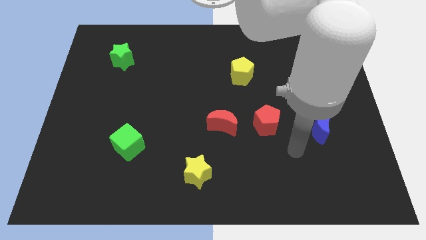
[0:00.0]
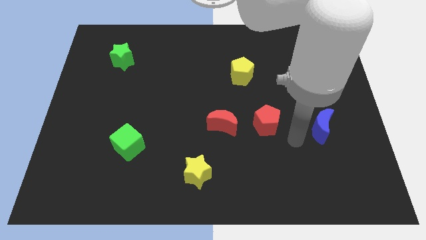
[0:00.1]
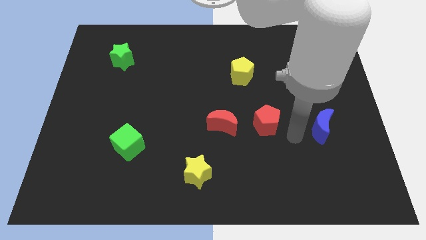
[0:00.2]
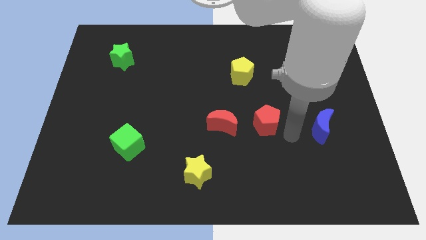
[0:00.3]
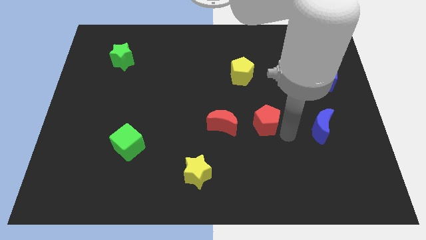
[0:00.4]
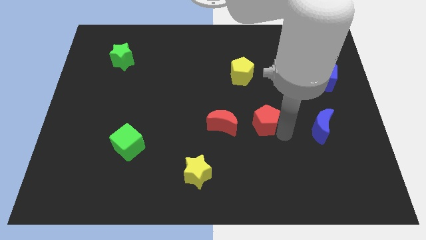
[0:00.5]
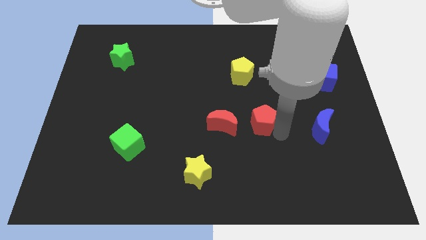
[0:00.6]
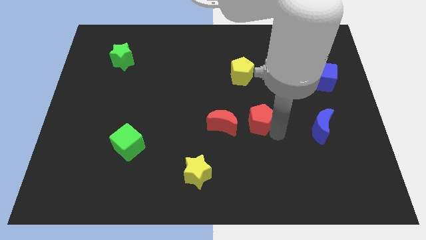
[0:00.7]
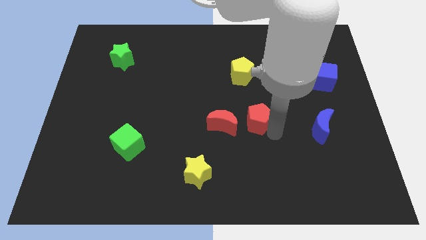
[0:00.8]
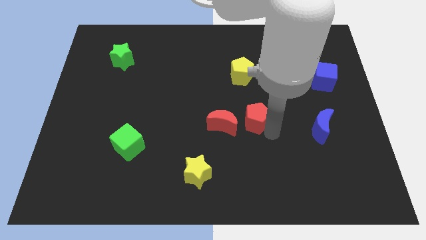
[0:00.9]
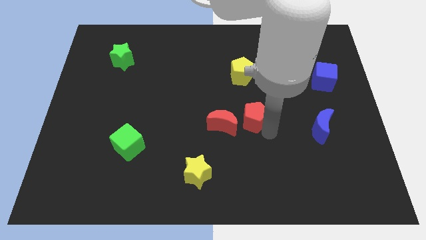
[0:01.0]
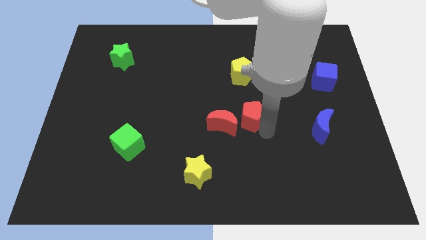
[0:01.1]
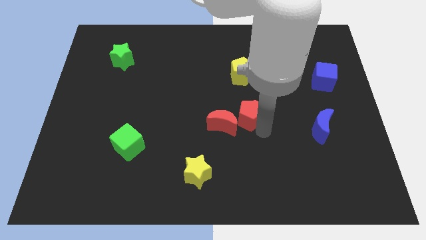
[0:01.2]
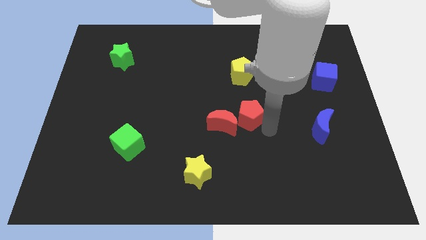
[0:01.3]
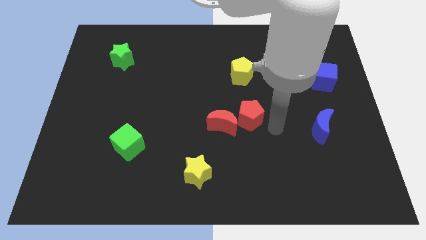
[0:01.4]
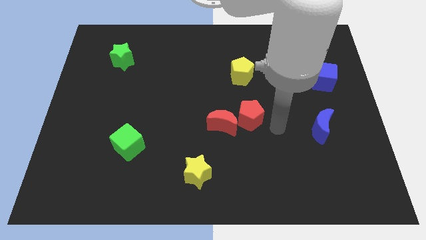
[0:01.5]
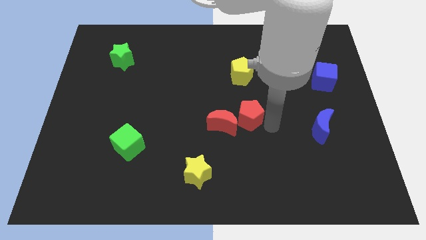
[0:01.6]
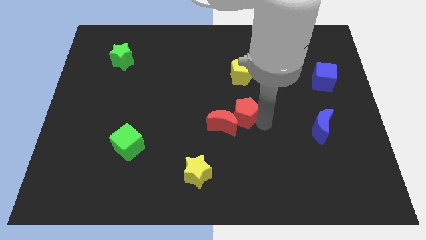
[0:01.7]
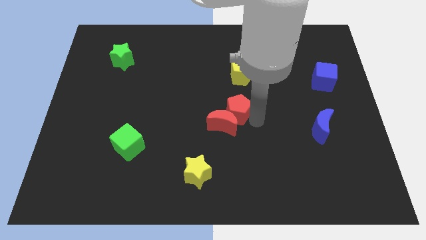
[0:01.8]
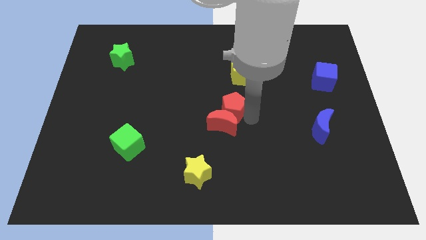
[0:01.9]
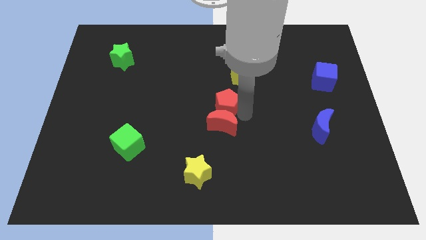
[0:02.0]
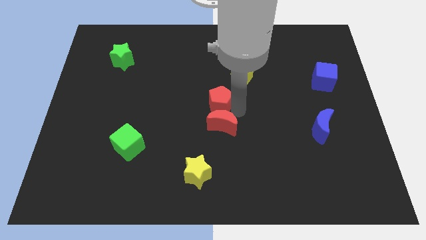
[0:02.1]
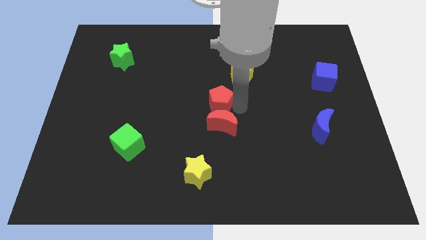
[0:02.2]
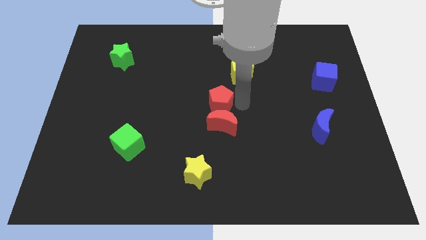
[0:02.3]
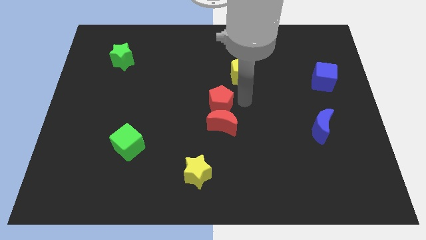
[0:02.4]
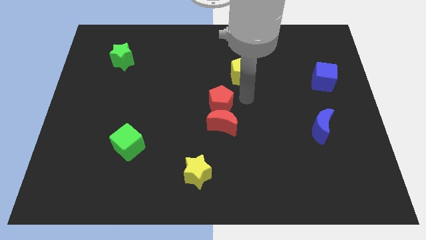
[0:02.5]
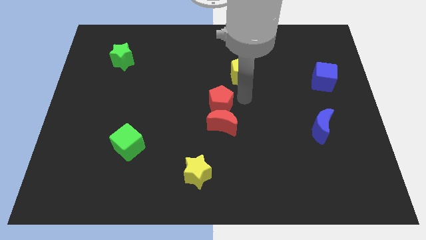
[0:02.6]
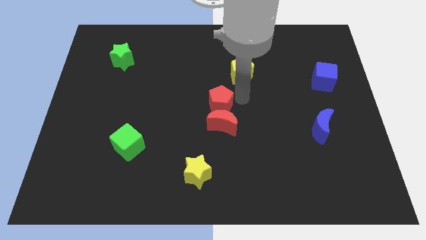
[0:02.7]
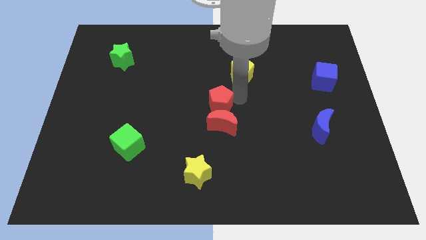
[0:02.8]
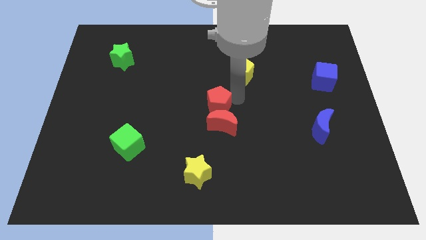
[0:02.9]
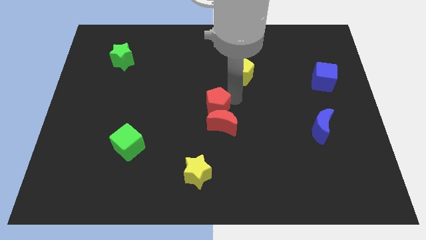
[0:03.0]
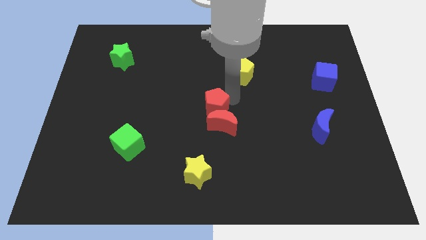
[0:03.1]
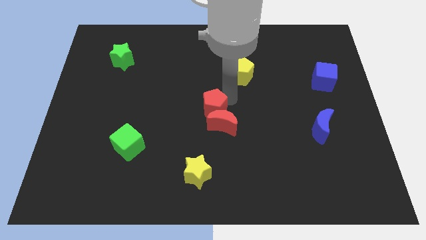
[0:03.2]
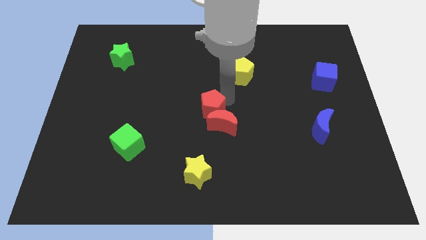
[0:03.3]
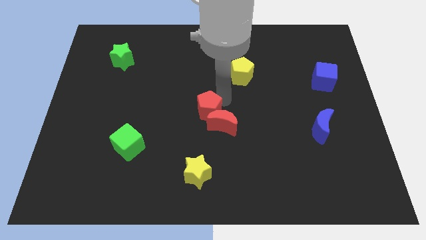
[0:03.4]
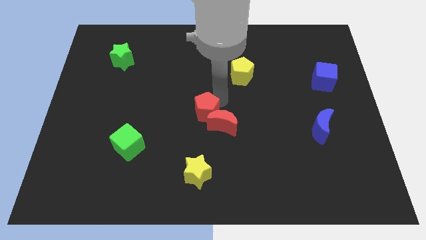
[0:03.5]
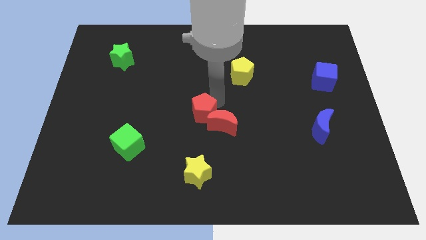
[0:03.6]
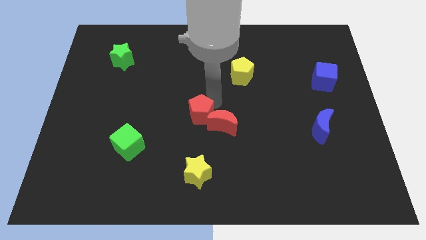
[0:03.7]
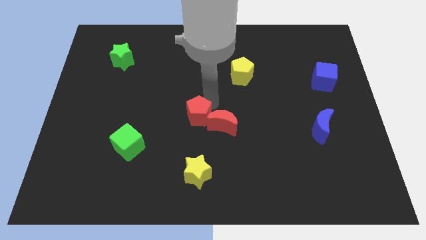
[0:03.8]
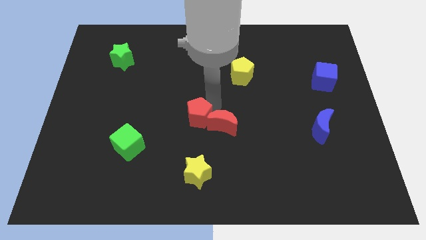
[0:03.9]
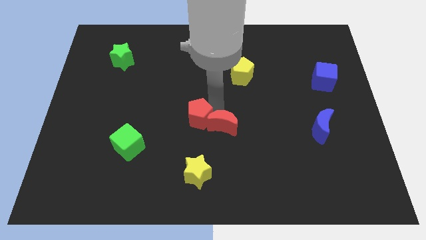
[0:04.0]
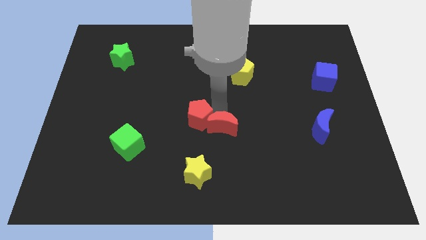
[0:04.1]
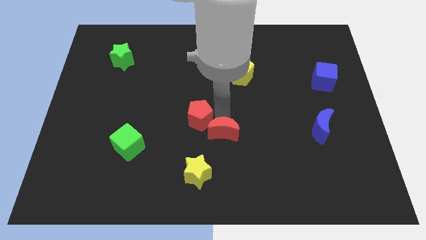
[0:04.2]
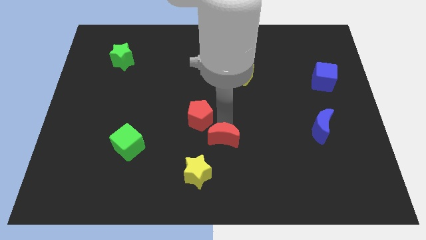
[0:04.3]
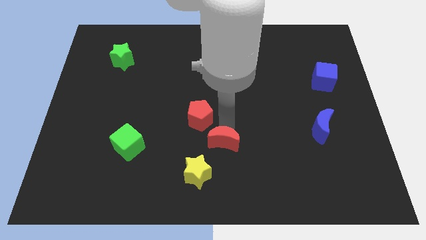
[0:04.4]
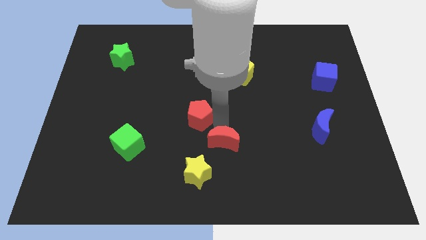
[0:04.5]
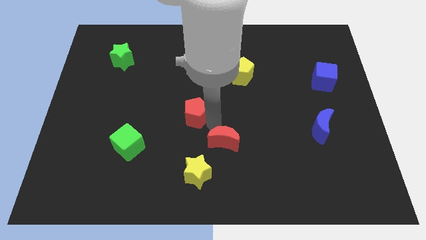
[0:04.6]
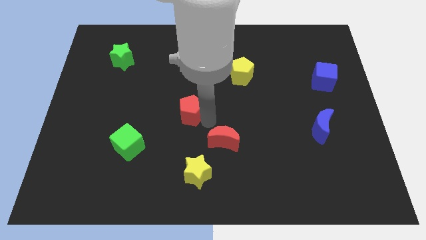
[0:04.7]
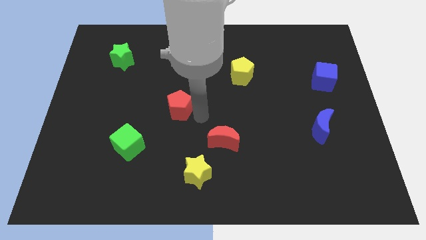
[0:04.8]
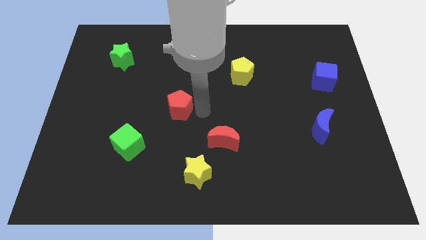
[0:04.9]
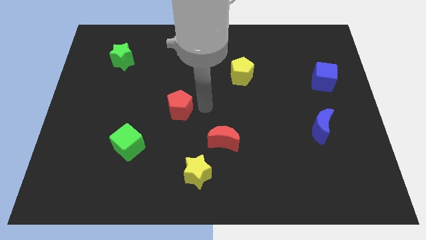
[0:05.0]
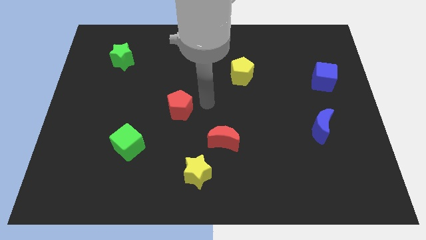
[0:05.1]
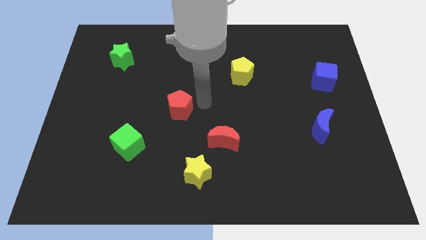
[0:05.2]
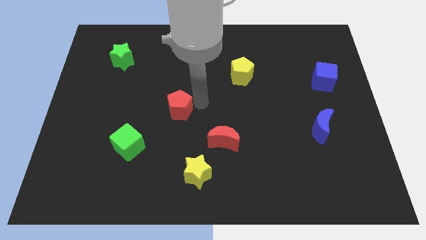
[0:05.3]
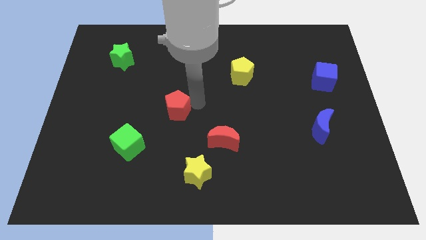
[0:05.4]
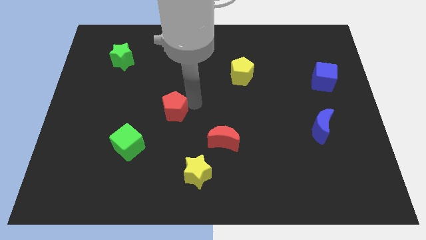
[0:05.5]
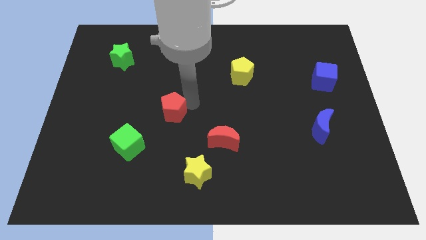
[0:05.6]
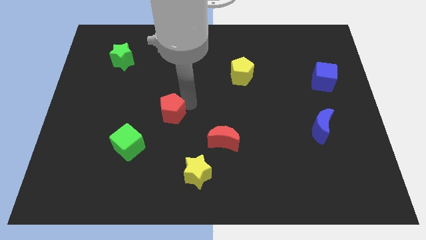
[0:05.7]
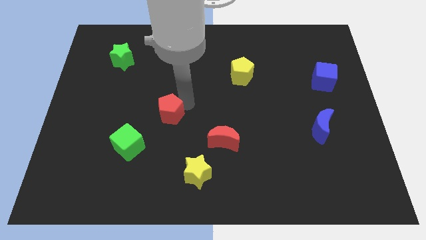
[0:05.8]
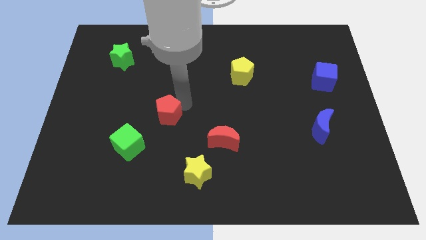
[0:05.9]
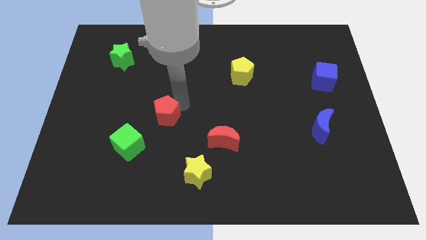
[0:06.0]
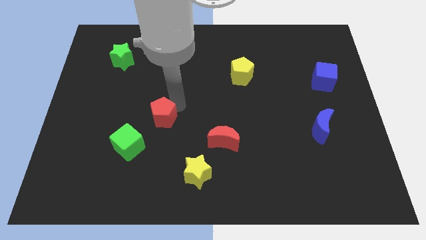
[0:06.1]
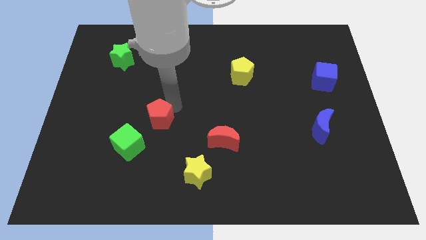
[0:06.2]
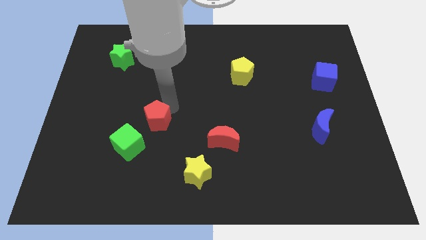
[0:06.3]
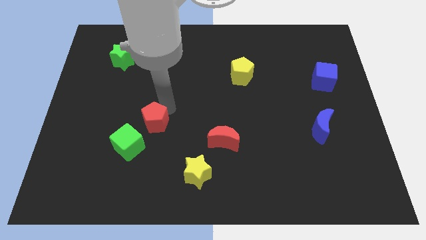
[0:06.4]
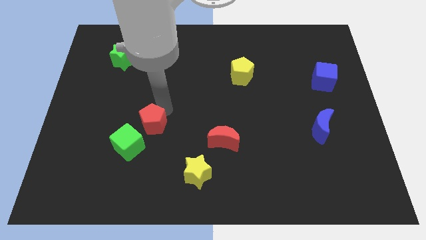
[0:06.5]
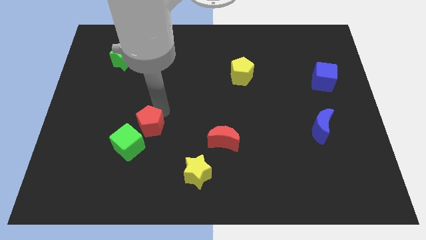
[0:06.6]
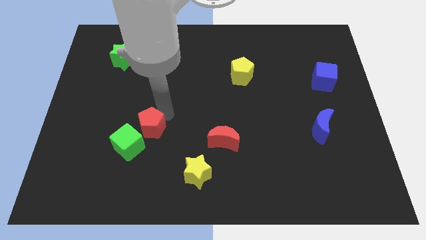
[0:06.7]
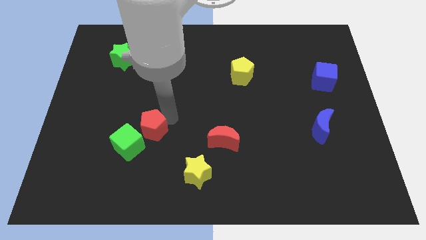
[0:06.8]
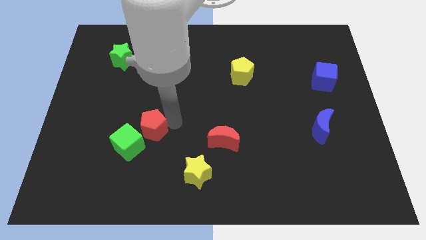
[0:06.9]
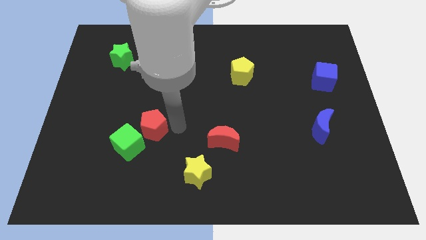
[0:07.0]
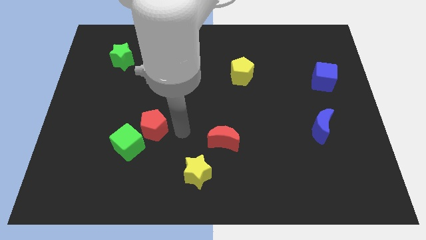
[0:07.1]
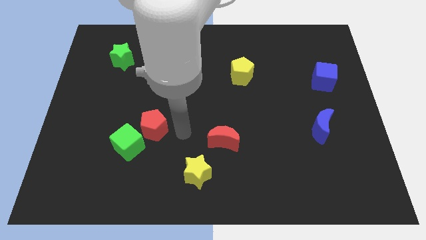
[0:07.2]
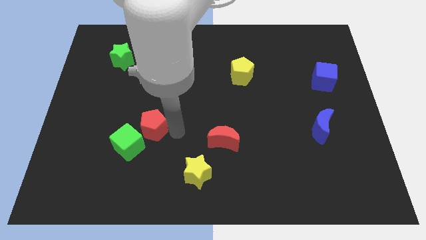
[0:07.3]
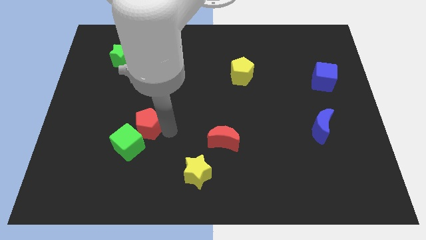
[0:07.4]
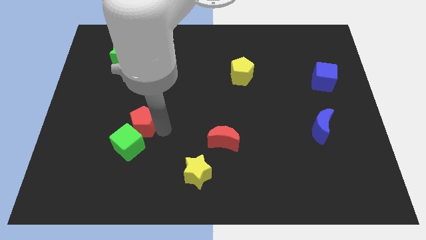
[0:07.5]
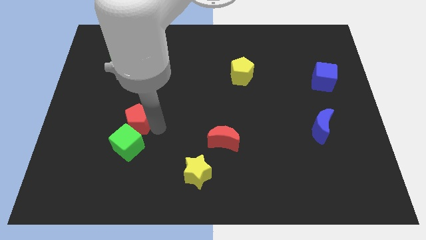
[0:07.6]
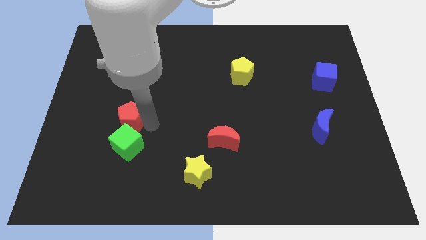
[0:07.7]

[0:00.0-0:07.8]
put the red pentagon to the top left side of the green cube
